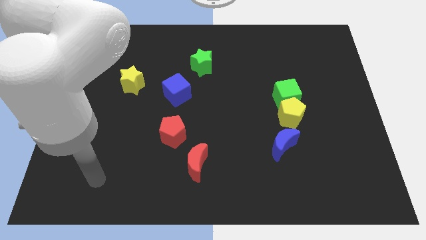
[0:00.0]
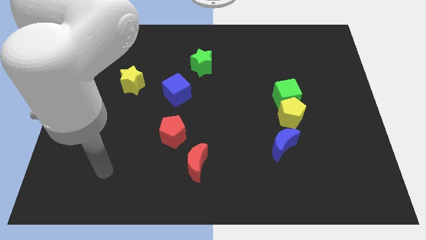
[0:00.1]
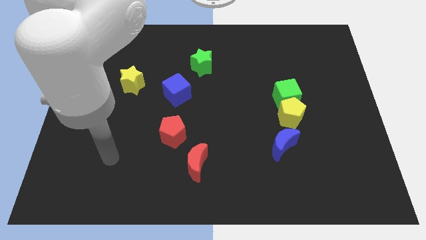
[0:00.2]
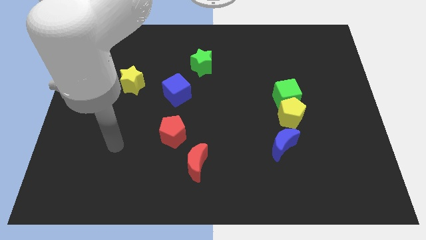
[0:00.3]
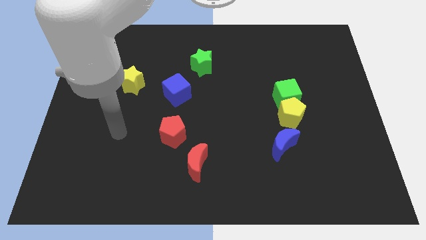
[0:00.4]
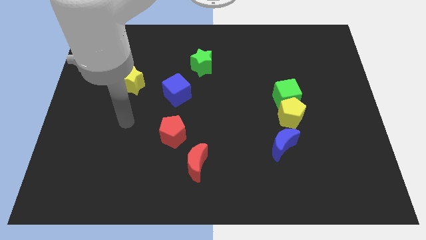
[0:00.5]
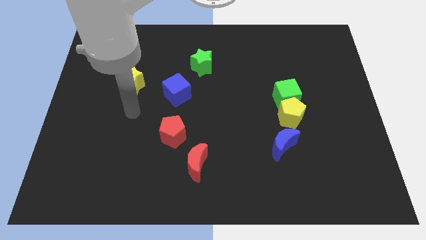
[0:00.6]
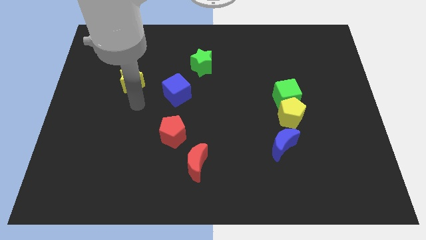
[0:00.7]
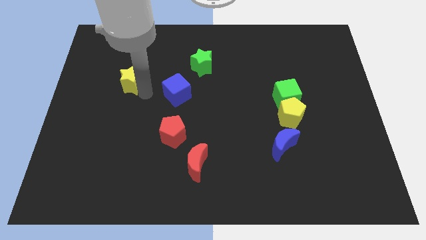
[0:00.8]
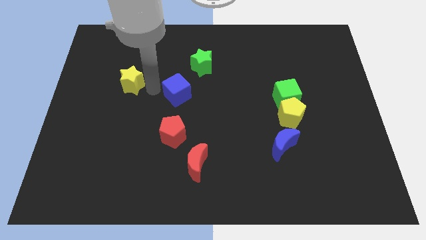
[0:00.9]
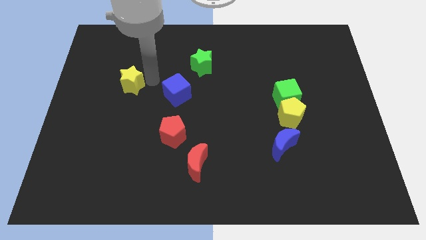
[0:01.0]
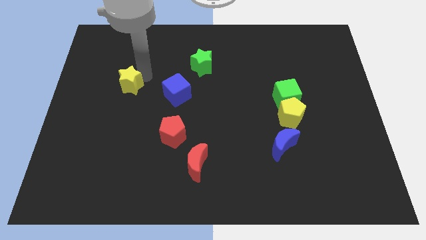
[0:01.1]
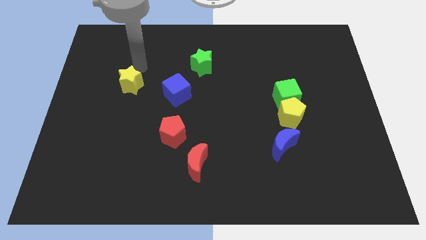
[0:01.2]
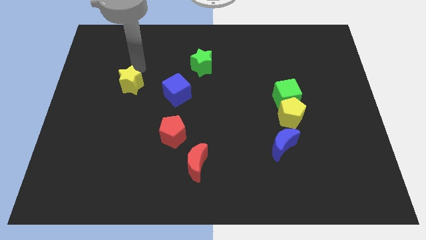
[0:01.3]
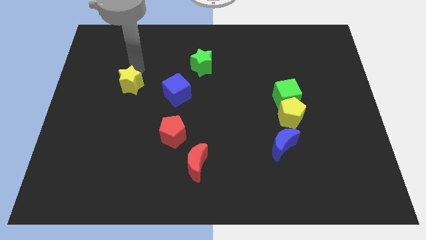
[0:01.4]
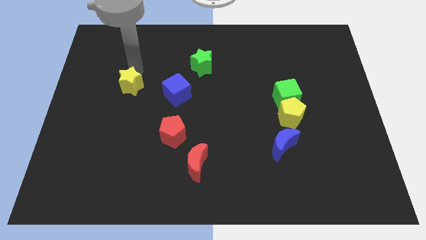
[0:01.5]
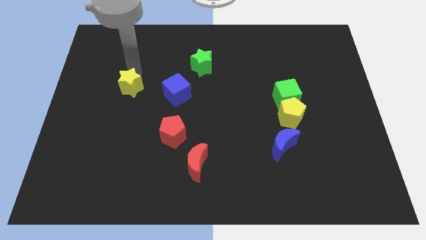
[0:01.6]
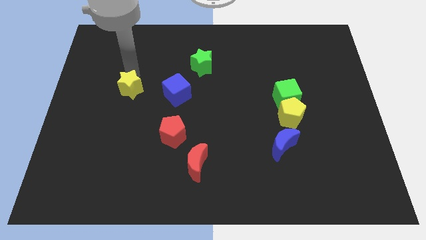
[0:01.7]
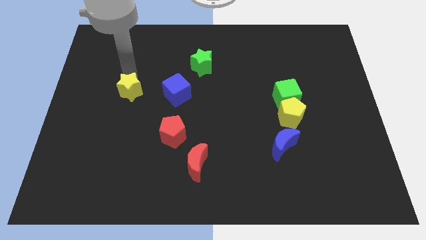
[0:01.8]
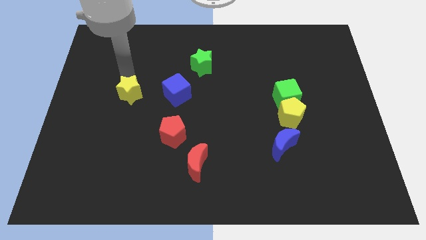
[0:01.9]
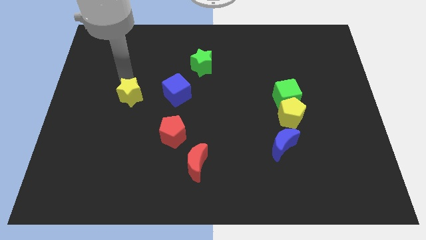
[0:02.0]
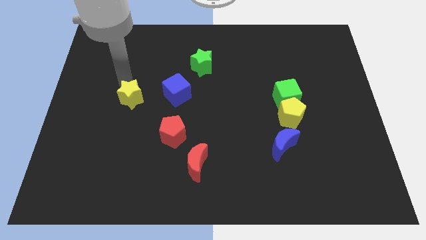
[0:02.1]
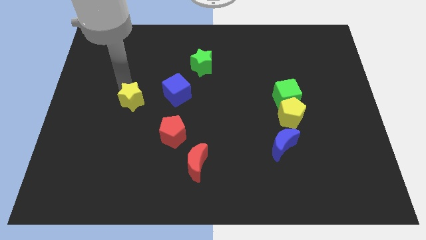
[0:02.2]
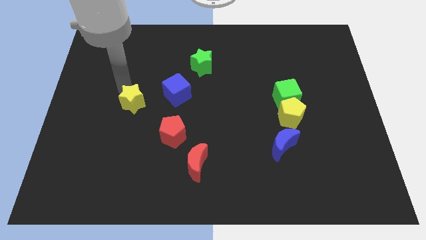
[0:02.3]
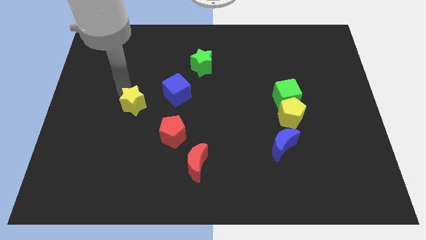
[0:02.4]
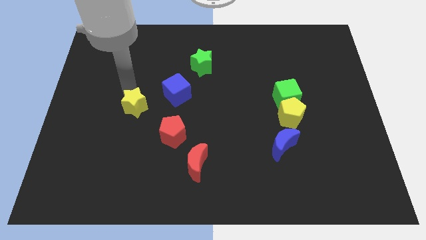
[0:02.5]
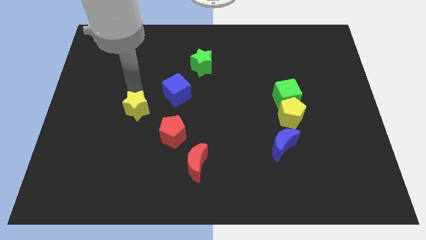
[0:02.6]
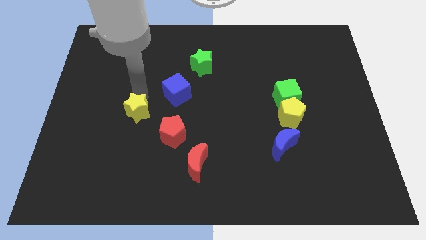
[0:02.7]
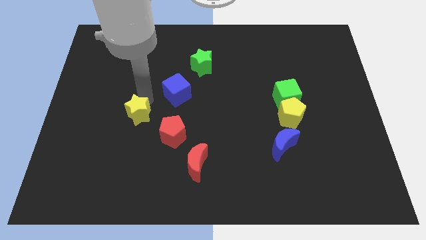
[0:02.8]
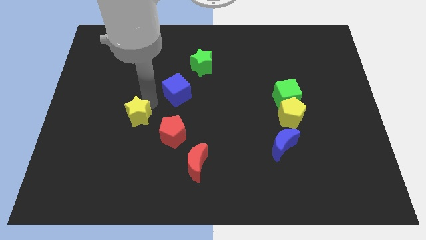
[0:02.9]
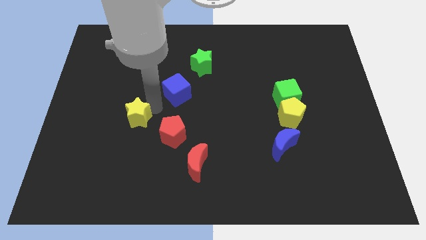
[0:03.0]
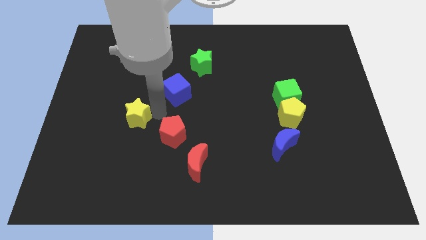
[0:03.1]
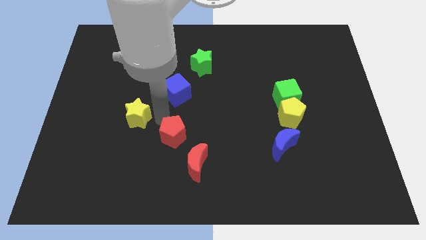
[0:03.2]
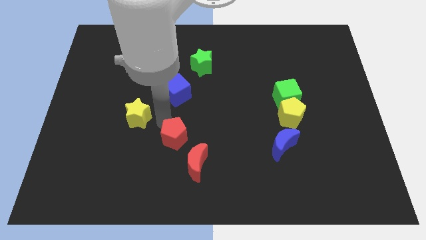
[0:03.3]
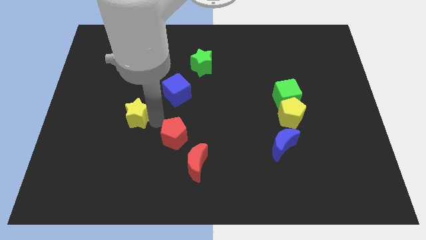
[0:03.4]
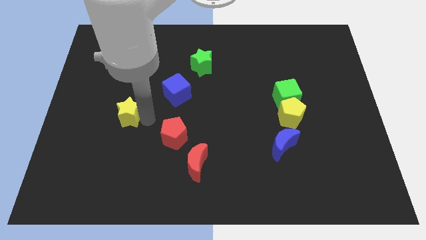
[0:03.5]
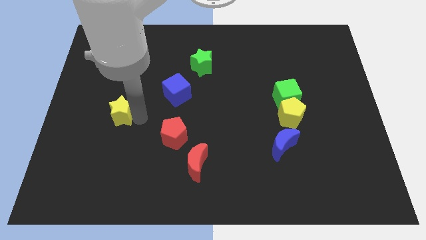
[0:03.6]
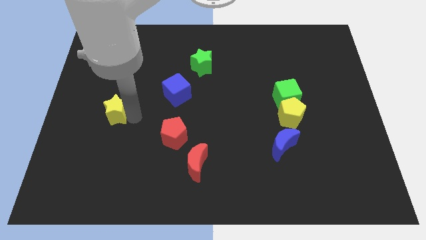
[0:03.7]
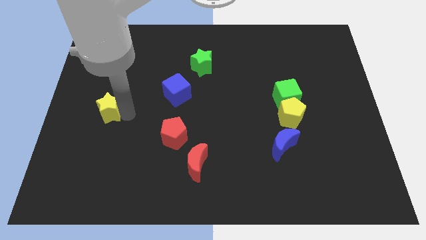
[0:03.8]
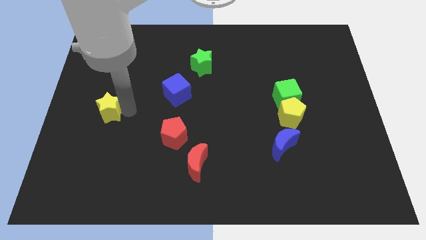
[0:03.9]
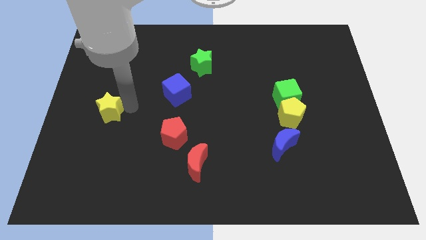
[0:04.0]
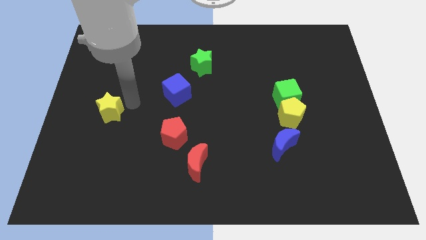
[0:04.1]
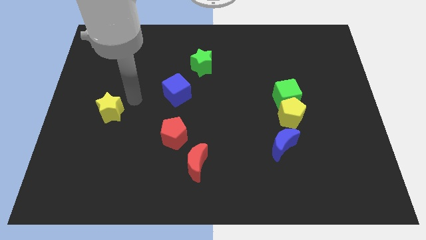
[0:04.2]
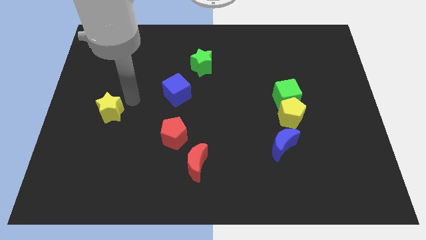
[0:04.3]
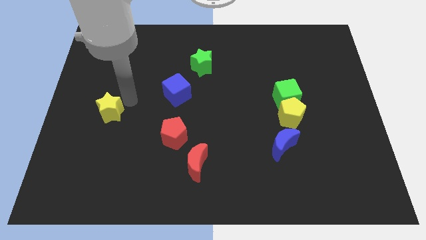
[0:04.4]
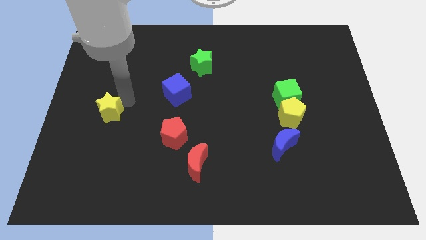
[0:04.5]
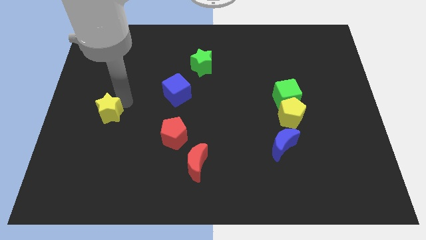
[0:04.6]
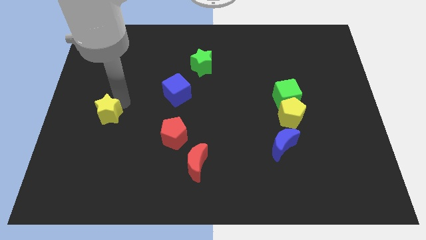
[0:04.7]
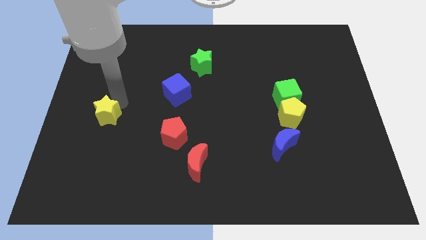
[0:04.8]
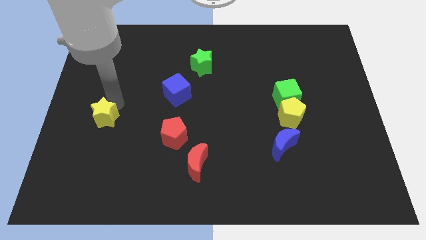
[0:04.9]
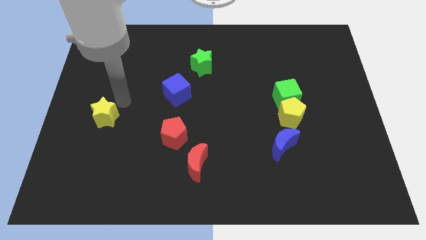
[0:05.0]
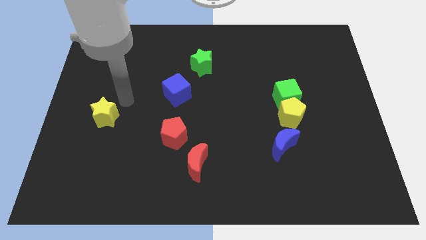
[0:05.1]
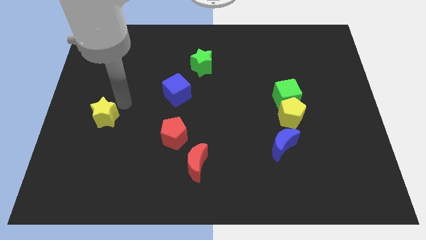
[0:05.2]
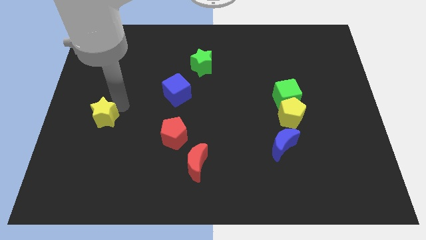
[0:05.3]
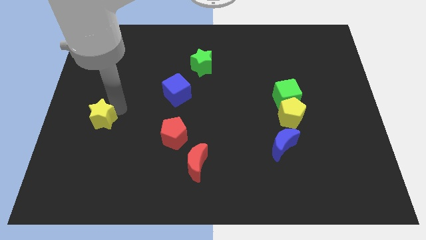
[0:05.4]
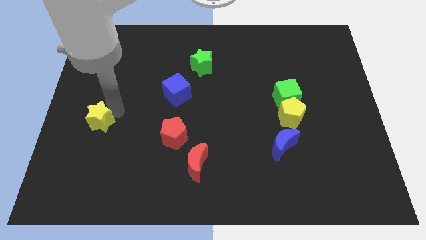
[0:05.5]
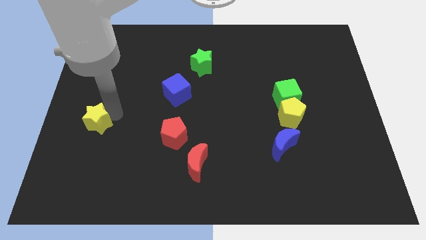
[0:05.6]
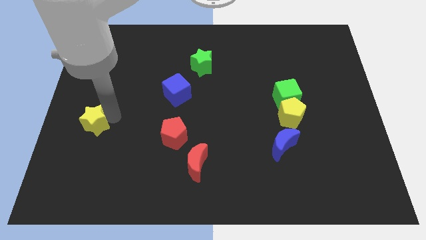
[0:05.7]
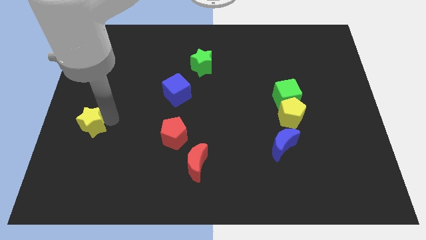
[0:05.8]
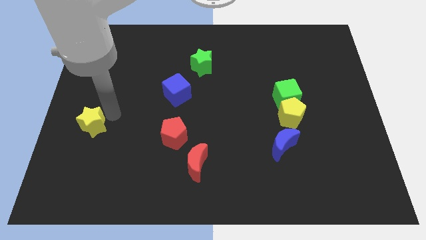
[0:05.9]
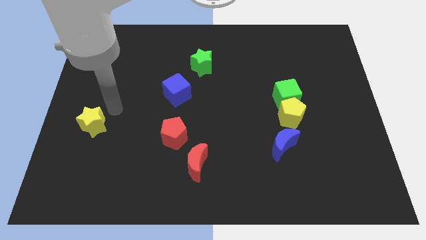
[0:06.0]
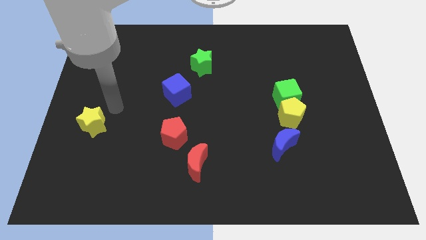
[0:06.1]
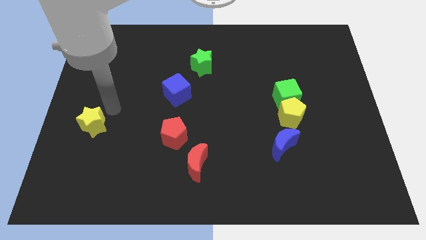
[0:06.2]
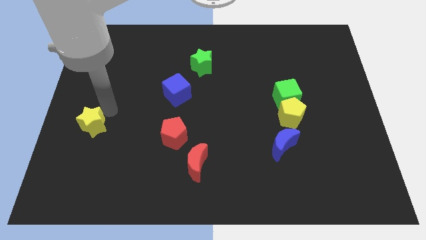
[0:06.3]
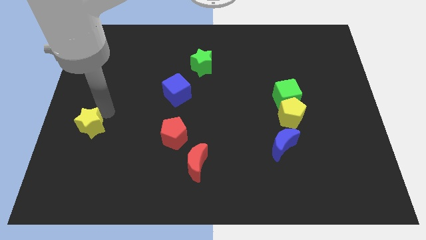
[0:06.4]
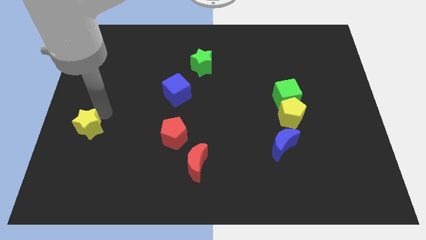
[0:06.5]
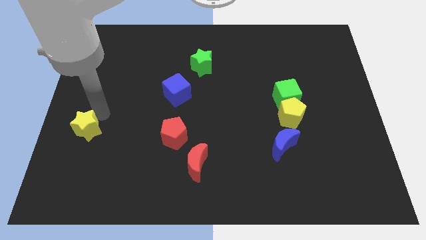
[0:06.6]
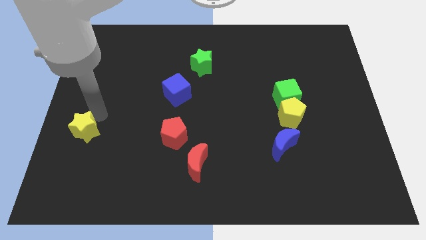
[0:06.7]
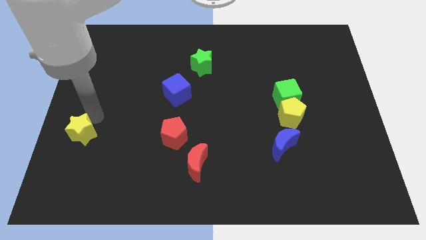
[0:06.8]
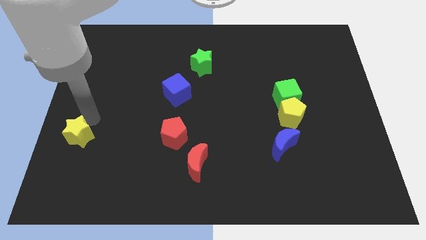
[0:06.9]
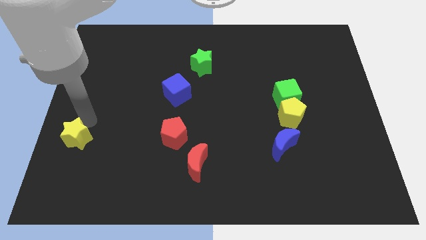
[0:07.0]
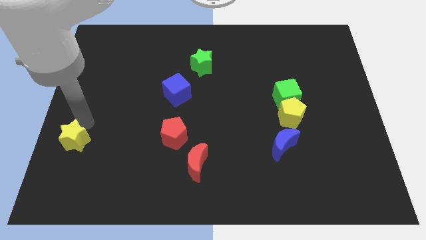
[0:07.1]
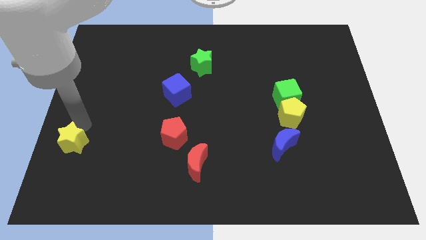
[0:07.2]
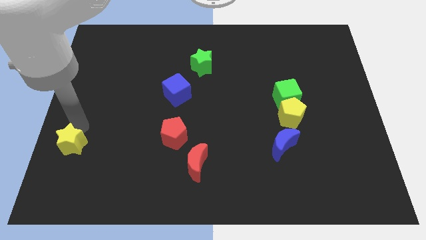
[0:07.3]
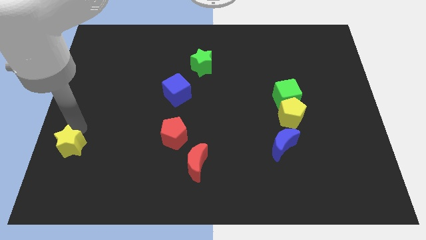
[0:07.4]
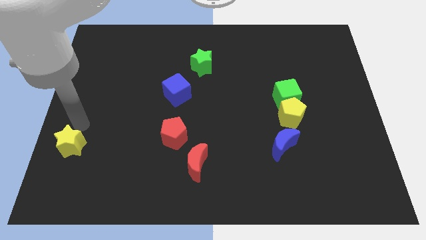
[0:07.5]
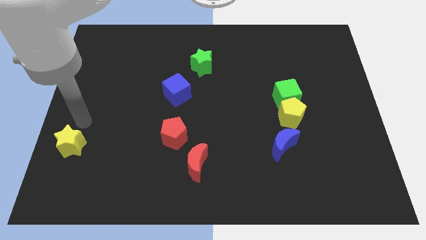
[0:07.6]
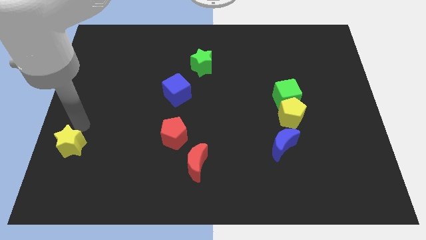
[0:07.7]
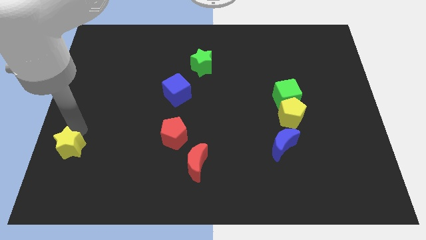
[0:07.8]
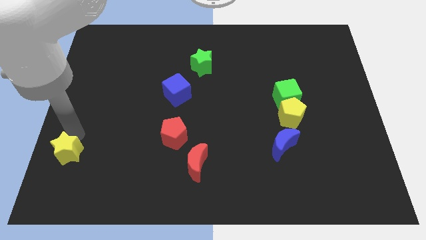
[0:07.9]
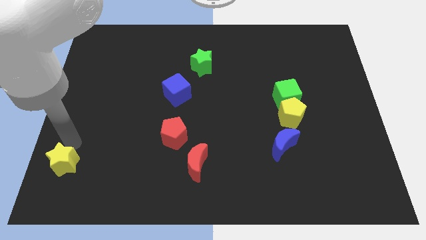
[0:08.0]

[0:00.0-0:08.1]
slide the yellow star to the bottom left
